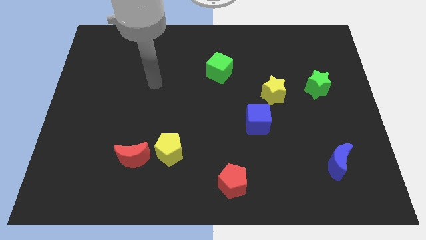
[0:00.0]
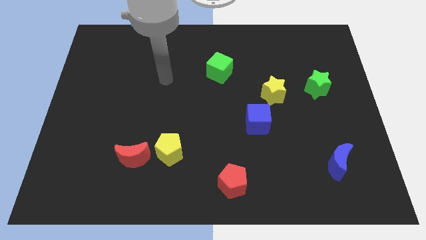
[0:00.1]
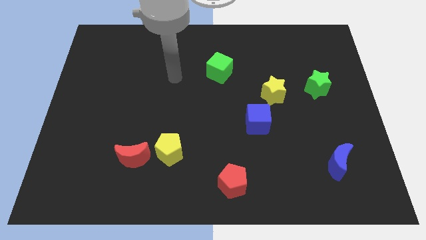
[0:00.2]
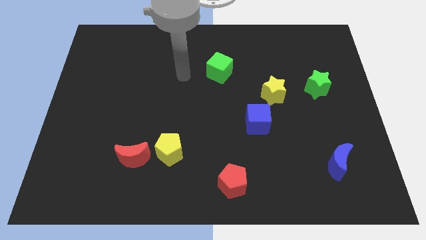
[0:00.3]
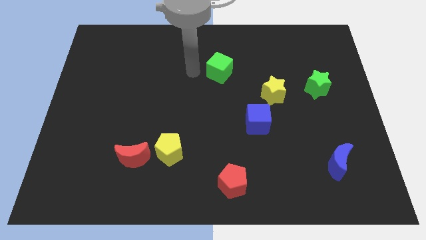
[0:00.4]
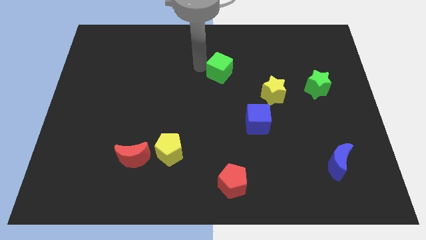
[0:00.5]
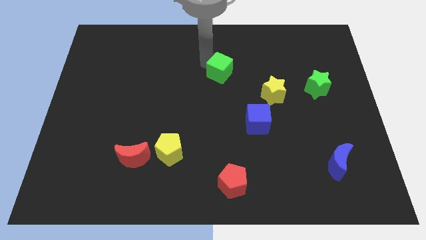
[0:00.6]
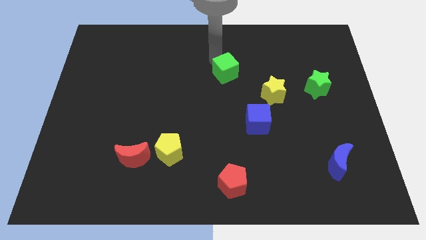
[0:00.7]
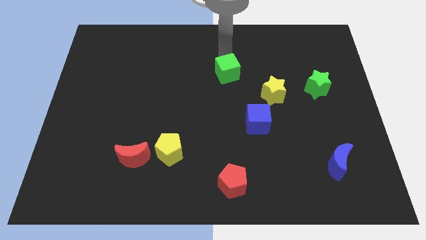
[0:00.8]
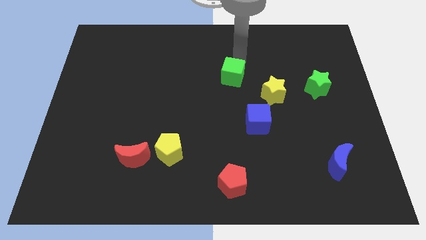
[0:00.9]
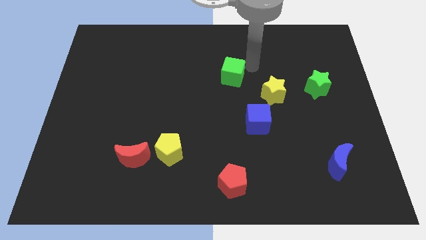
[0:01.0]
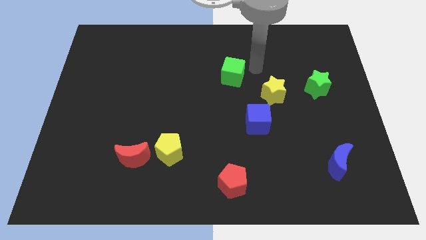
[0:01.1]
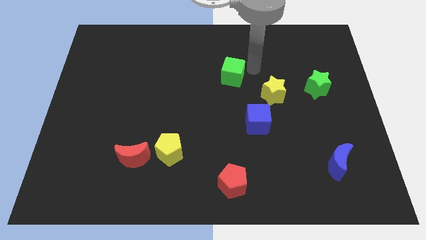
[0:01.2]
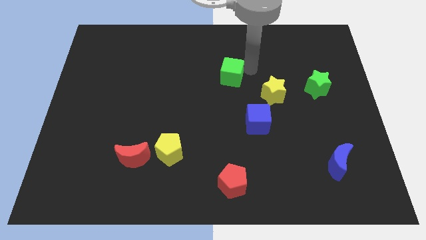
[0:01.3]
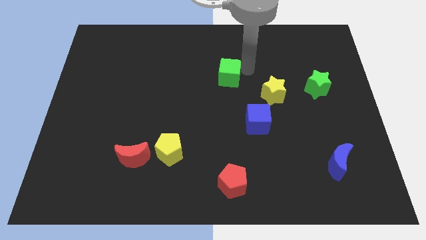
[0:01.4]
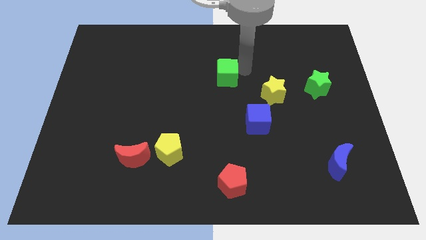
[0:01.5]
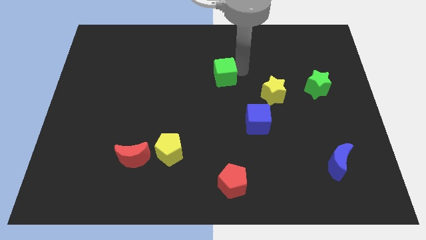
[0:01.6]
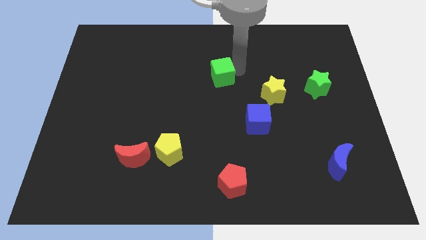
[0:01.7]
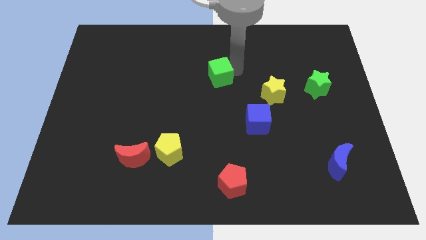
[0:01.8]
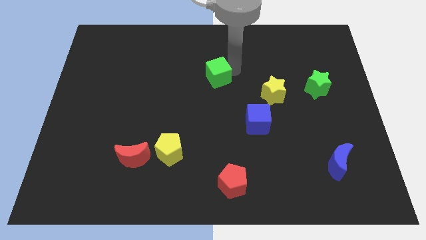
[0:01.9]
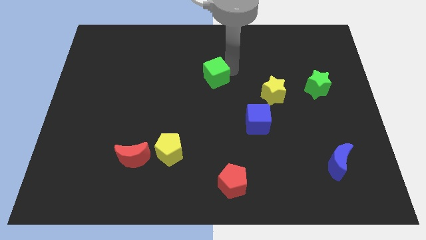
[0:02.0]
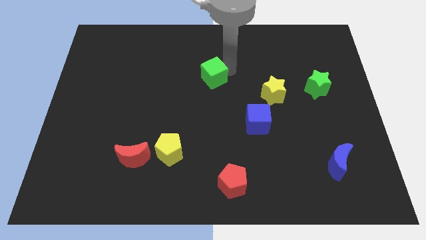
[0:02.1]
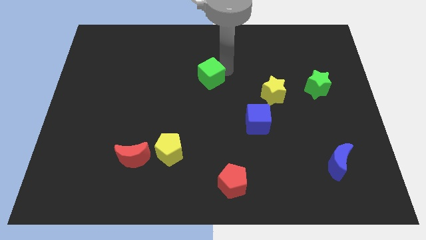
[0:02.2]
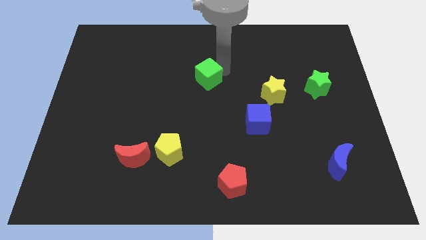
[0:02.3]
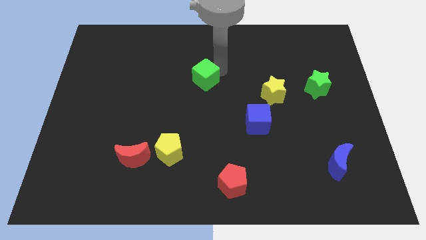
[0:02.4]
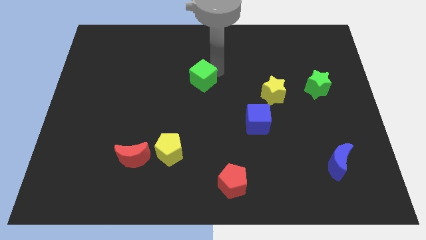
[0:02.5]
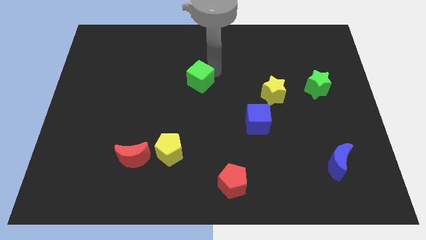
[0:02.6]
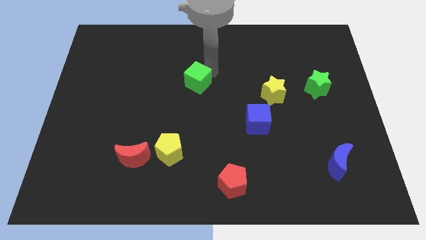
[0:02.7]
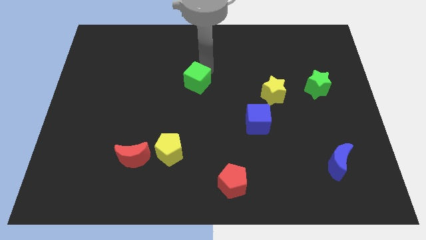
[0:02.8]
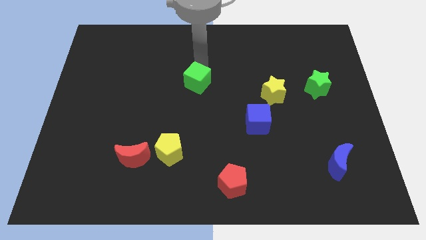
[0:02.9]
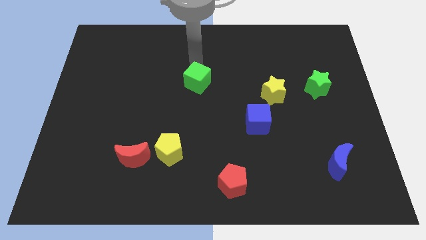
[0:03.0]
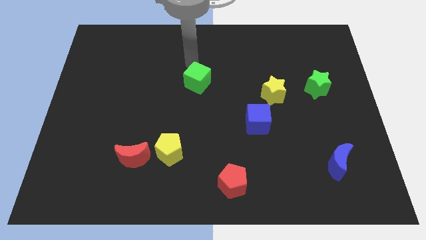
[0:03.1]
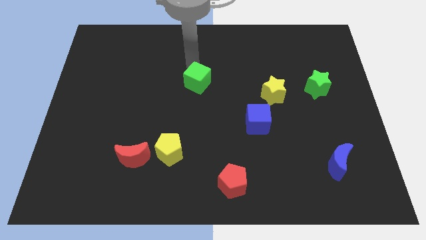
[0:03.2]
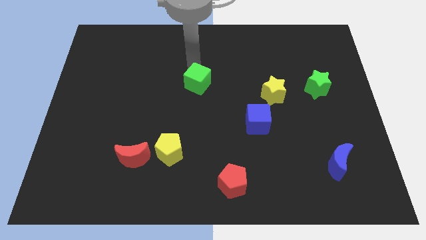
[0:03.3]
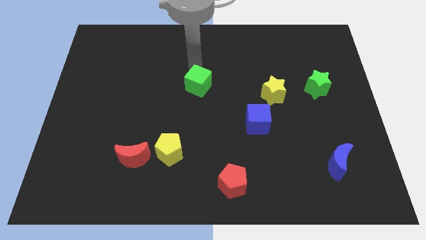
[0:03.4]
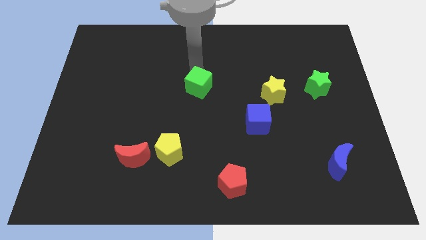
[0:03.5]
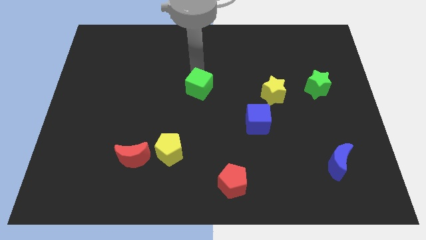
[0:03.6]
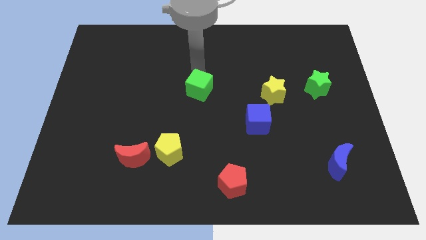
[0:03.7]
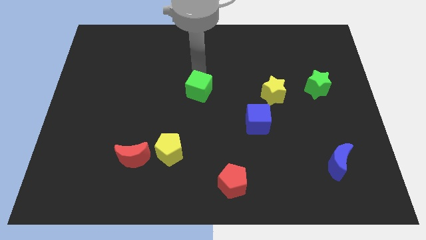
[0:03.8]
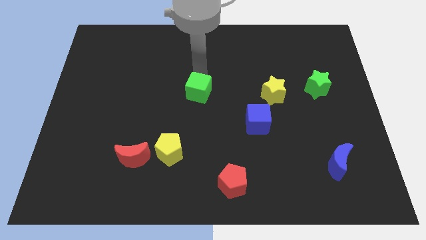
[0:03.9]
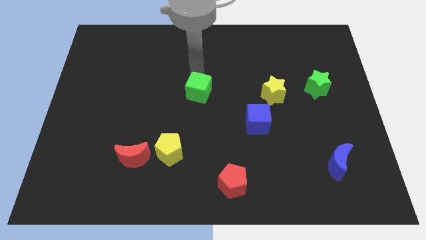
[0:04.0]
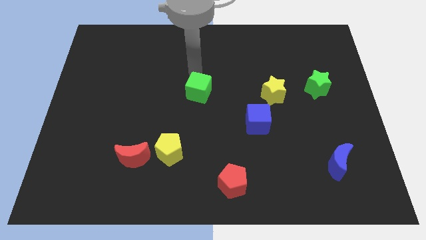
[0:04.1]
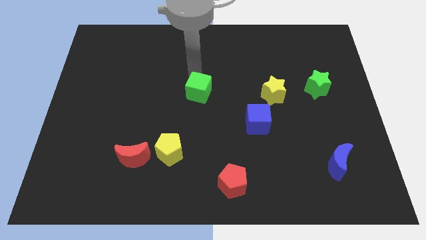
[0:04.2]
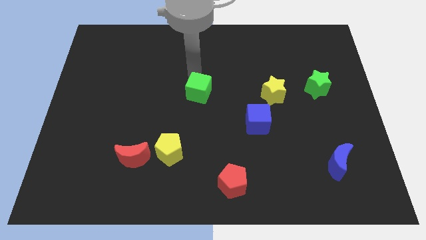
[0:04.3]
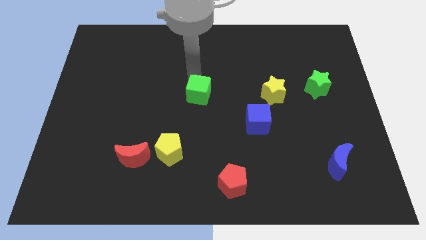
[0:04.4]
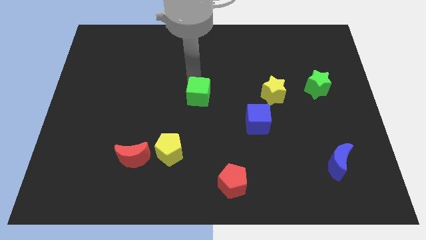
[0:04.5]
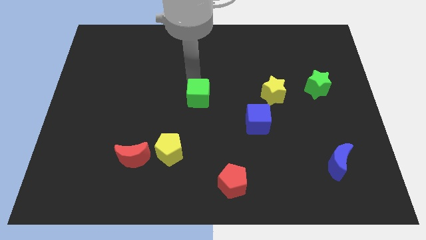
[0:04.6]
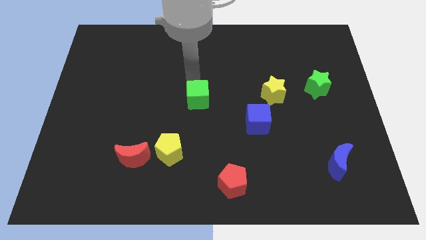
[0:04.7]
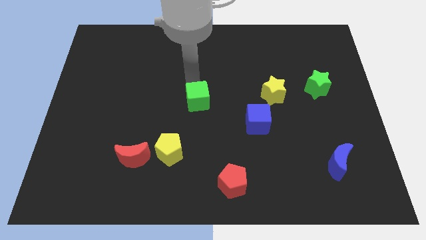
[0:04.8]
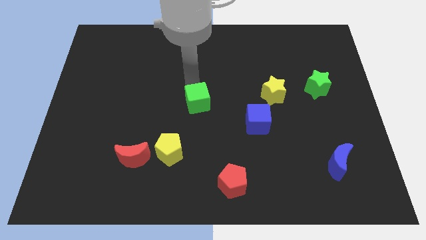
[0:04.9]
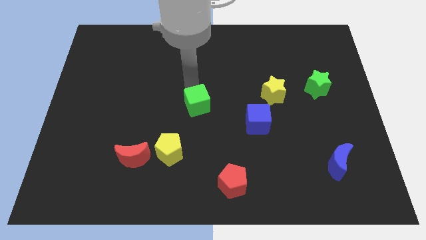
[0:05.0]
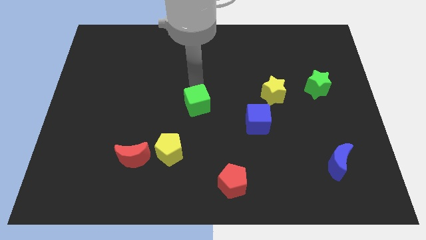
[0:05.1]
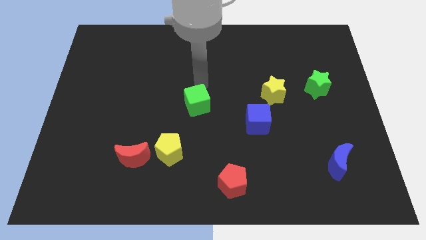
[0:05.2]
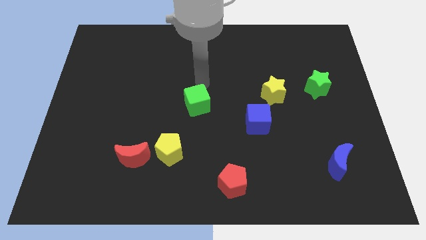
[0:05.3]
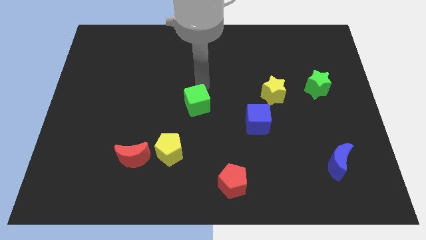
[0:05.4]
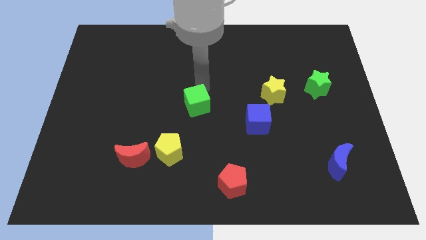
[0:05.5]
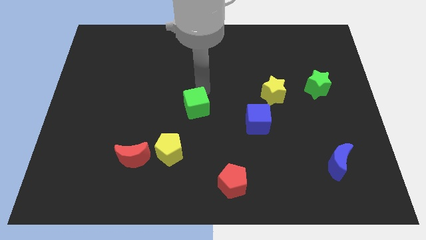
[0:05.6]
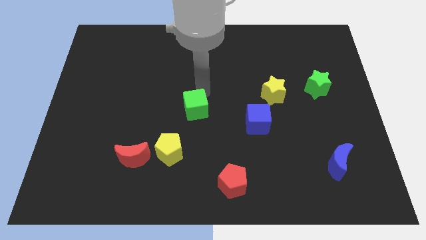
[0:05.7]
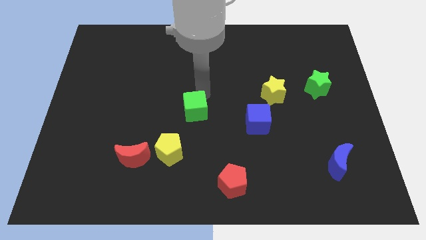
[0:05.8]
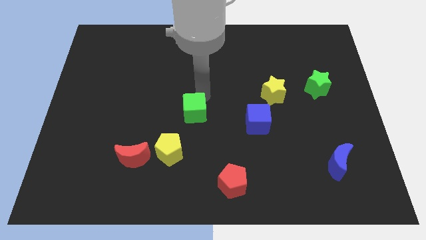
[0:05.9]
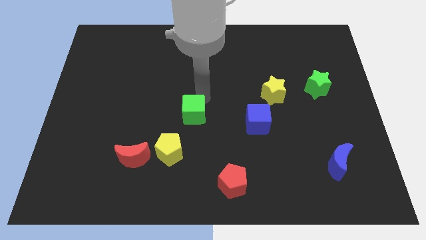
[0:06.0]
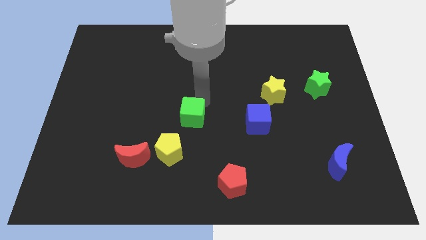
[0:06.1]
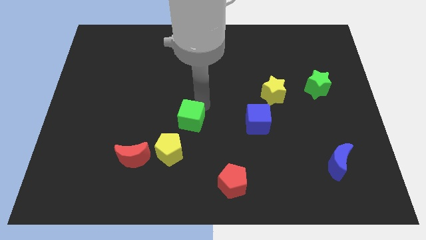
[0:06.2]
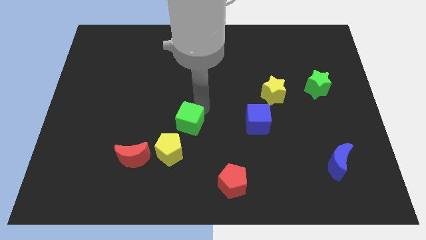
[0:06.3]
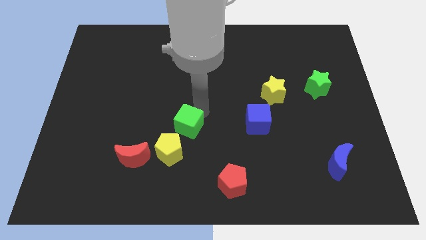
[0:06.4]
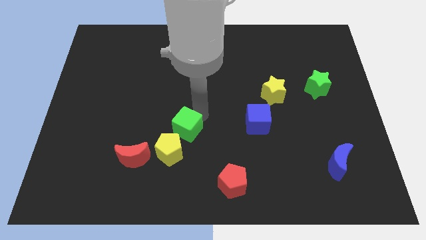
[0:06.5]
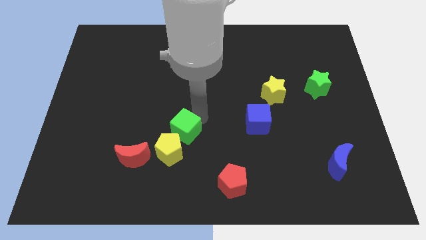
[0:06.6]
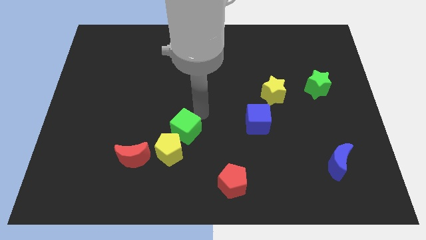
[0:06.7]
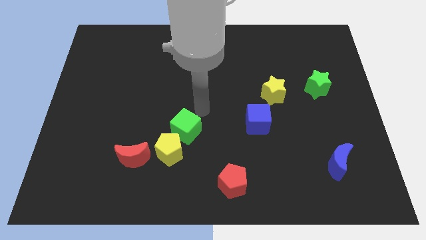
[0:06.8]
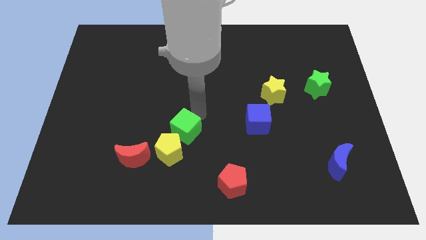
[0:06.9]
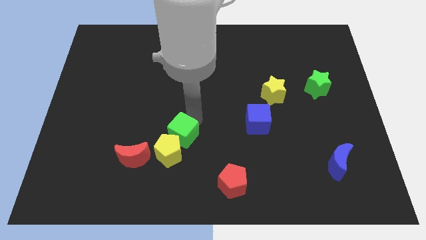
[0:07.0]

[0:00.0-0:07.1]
slide the green cube to the yellow pentagon

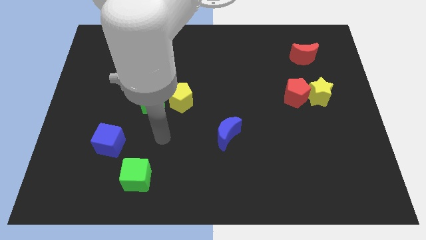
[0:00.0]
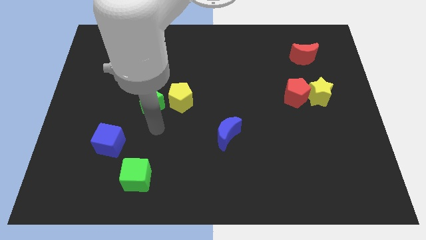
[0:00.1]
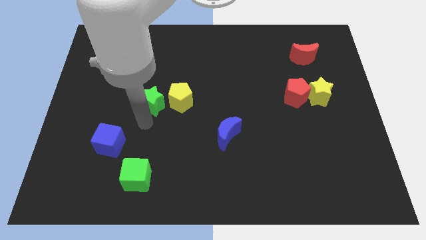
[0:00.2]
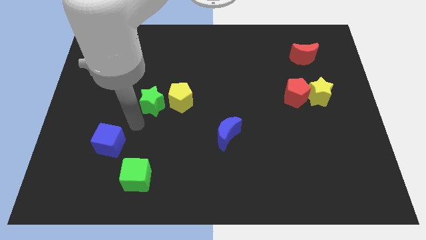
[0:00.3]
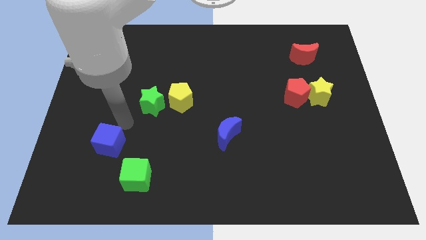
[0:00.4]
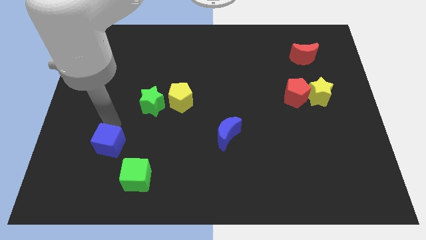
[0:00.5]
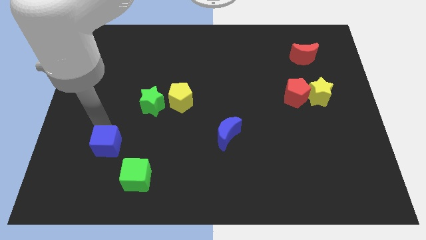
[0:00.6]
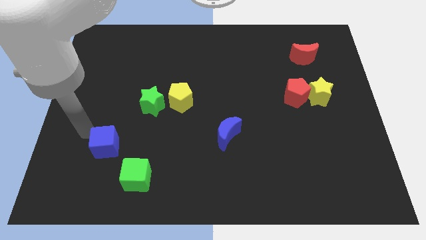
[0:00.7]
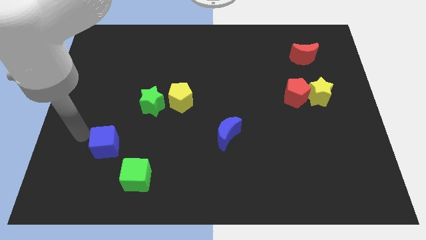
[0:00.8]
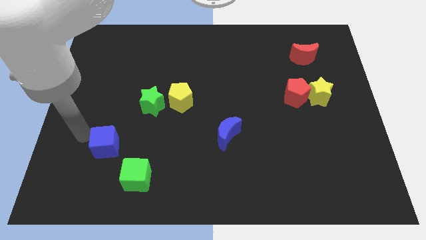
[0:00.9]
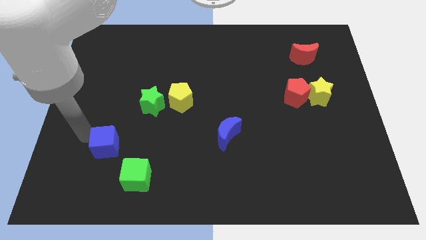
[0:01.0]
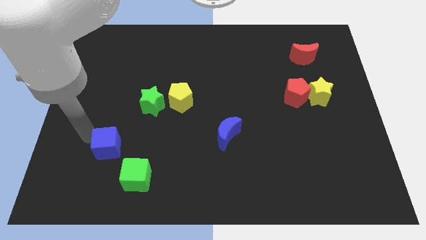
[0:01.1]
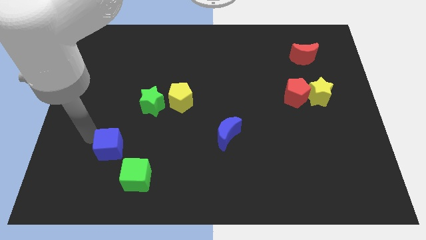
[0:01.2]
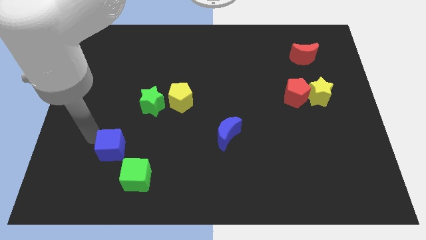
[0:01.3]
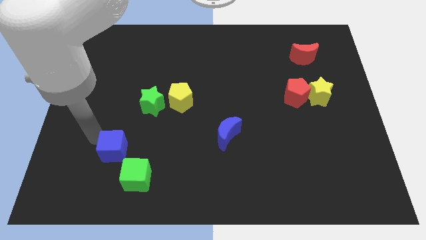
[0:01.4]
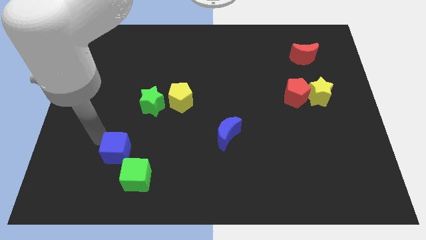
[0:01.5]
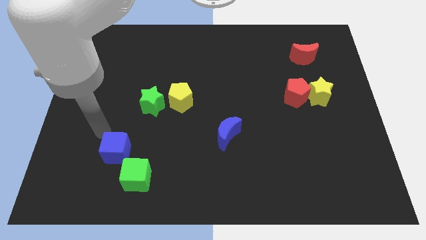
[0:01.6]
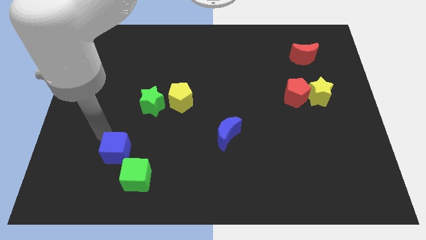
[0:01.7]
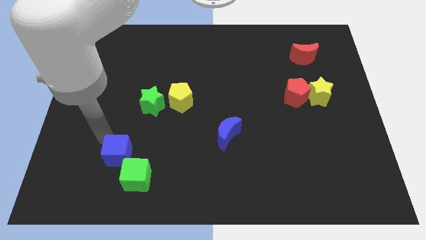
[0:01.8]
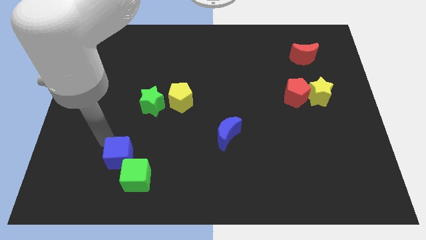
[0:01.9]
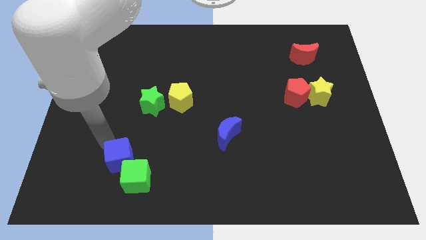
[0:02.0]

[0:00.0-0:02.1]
slide the blue cube close to the green cube
